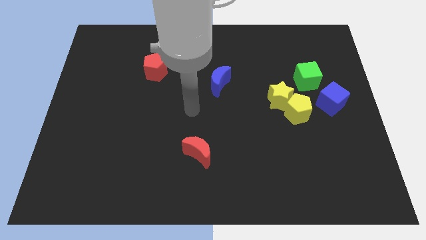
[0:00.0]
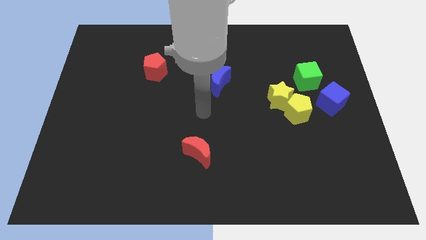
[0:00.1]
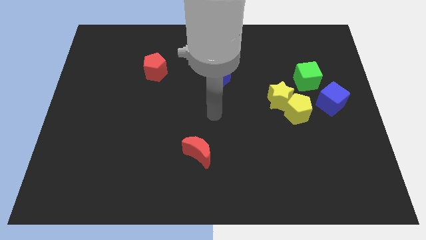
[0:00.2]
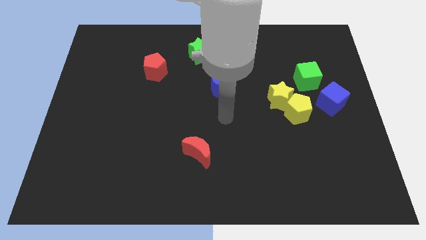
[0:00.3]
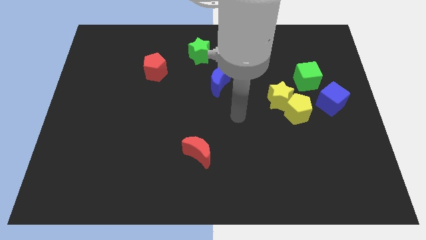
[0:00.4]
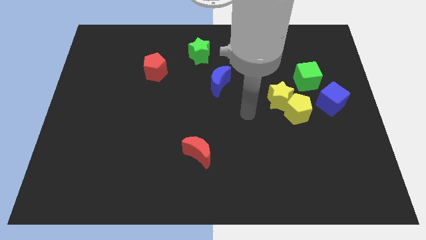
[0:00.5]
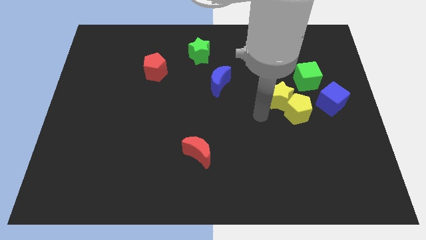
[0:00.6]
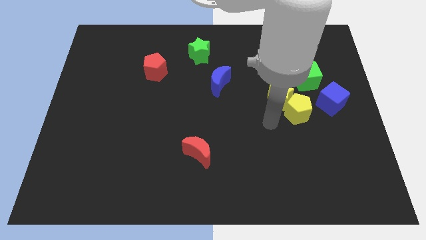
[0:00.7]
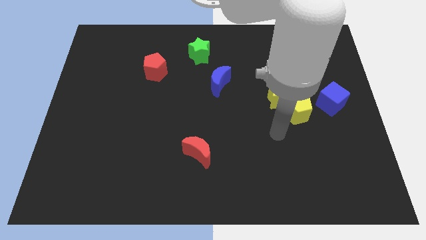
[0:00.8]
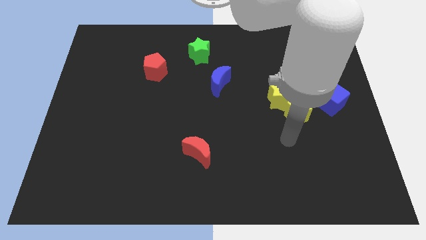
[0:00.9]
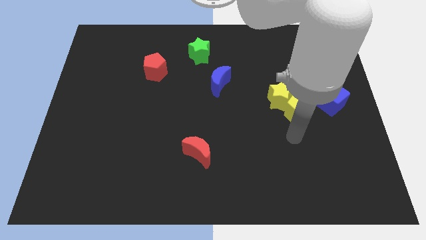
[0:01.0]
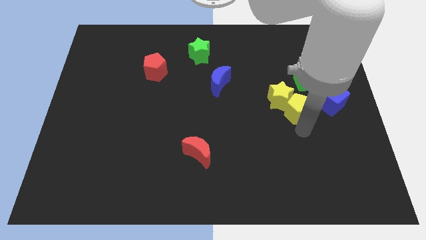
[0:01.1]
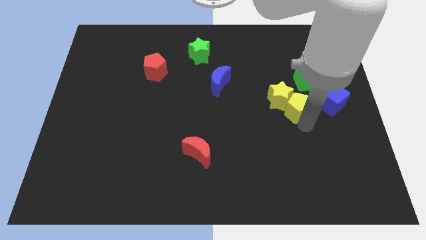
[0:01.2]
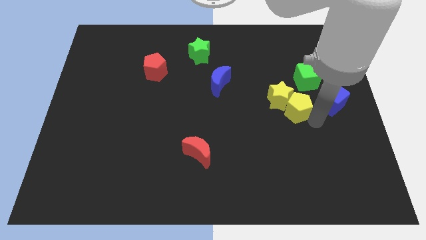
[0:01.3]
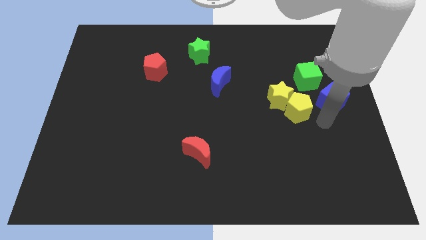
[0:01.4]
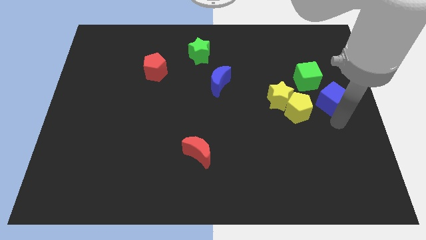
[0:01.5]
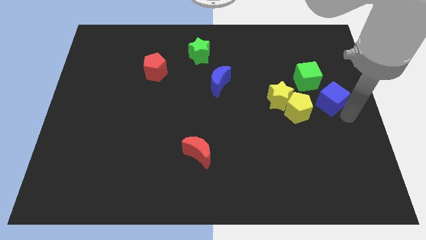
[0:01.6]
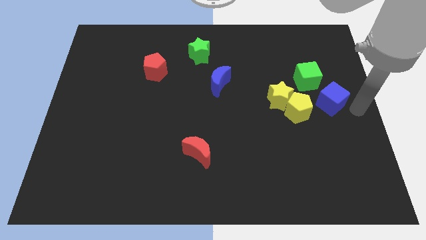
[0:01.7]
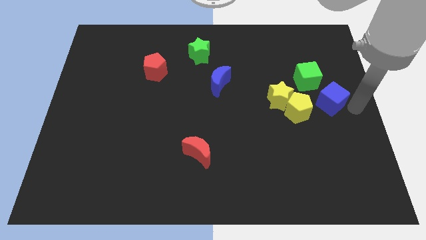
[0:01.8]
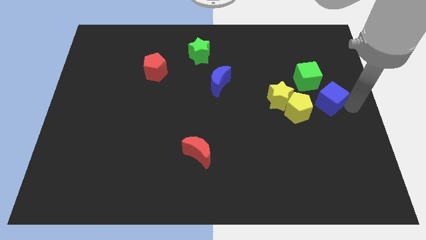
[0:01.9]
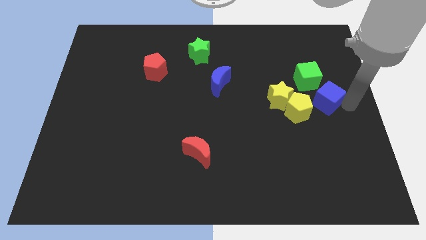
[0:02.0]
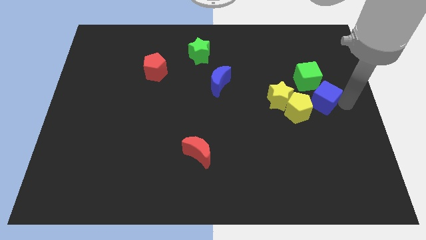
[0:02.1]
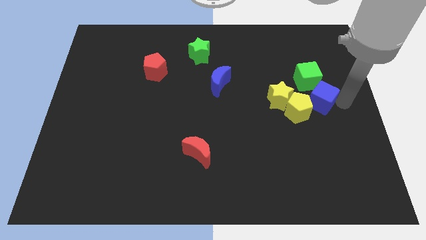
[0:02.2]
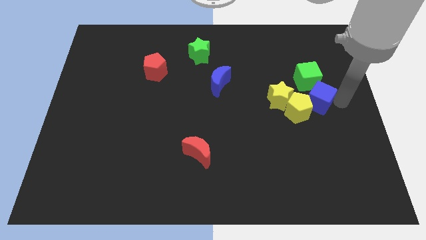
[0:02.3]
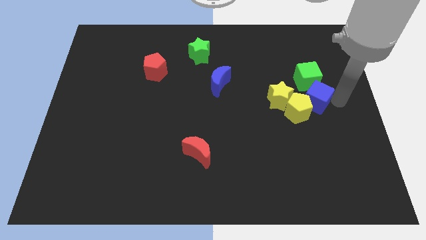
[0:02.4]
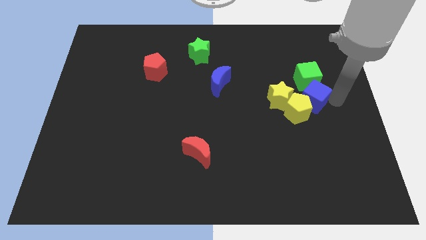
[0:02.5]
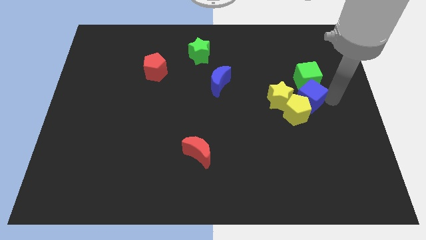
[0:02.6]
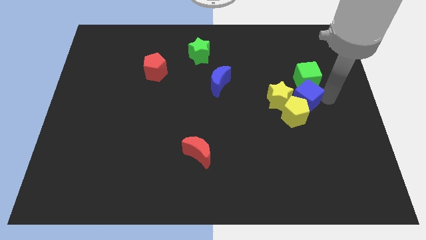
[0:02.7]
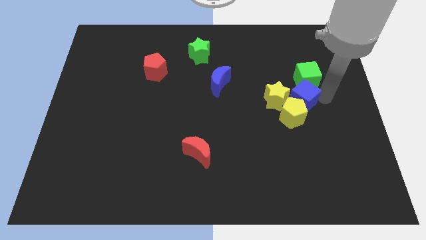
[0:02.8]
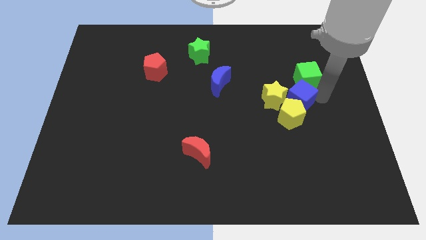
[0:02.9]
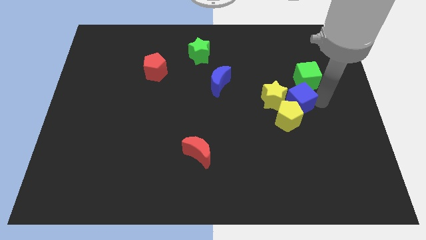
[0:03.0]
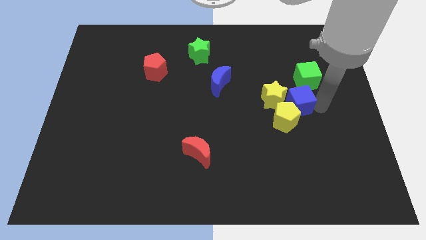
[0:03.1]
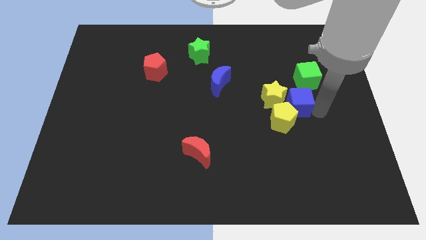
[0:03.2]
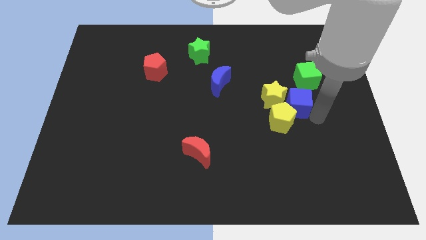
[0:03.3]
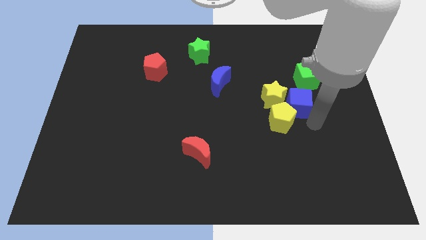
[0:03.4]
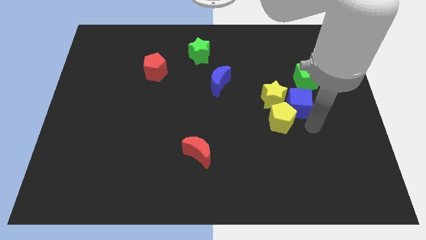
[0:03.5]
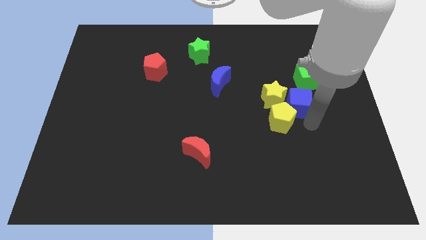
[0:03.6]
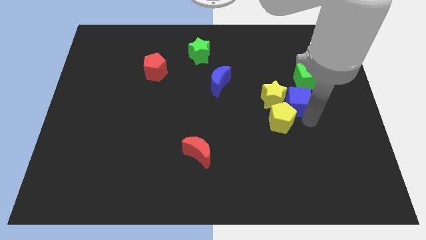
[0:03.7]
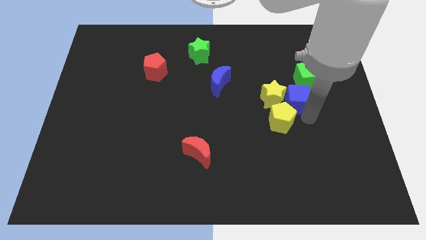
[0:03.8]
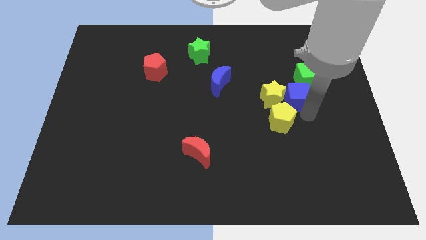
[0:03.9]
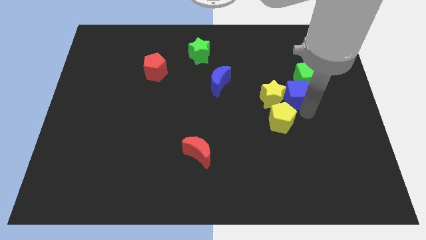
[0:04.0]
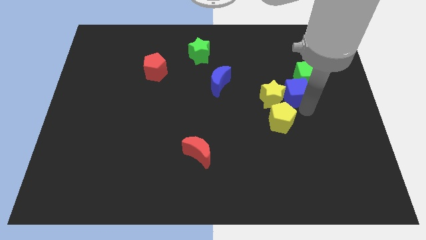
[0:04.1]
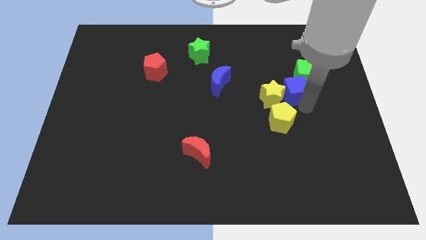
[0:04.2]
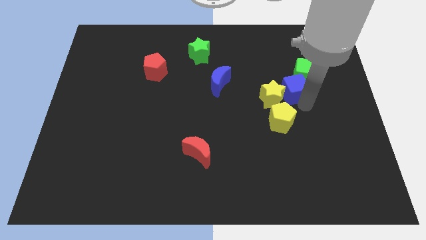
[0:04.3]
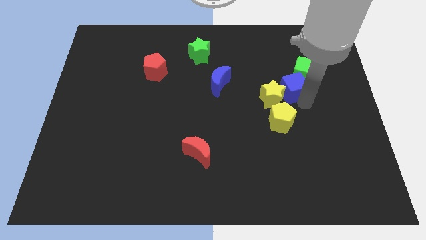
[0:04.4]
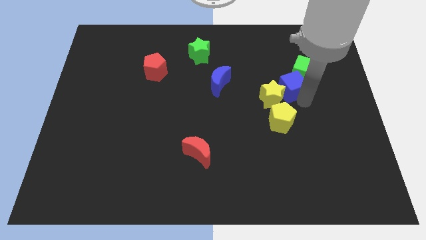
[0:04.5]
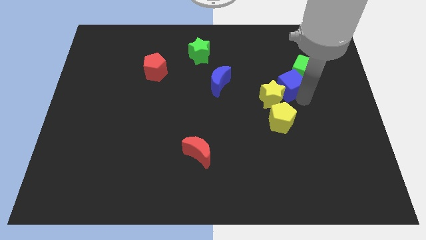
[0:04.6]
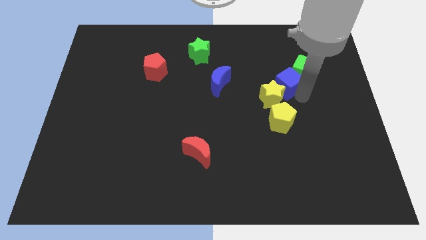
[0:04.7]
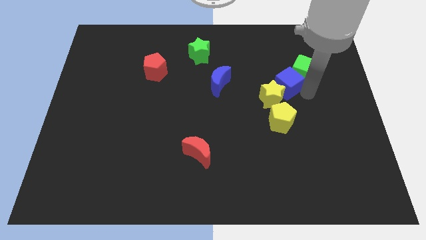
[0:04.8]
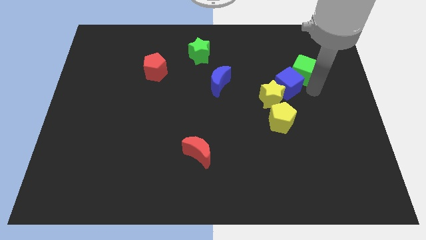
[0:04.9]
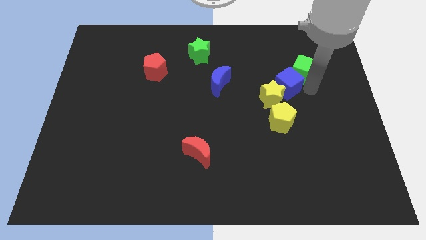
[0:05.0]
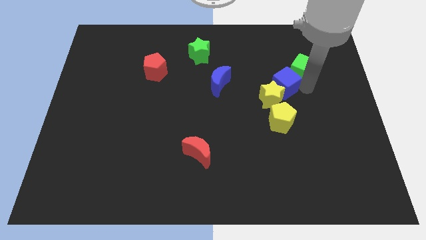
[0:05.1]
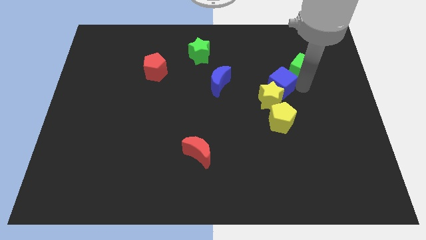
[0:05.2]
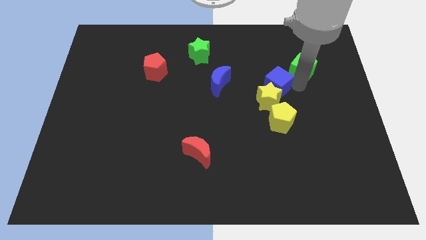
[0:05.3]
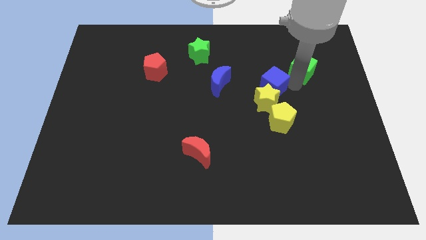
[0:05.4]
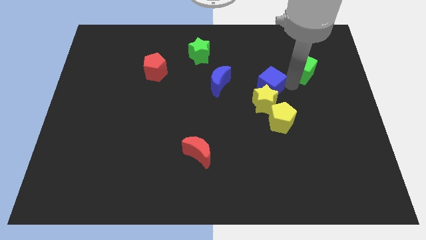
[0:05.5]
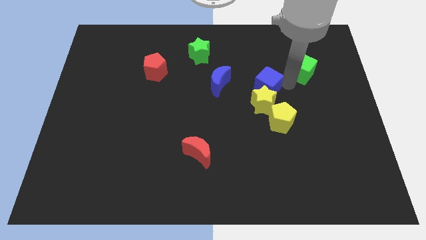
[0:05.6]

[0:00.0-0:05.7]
put the blue cube diagonally up and to the left of the yellow star
